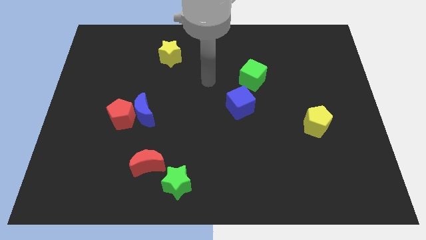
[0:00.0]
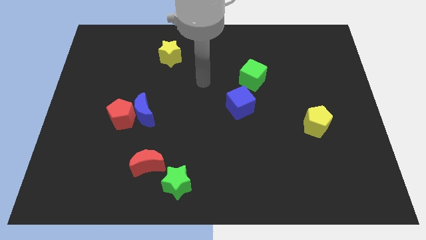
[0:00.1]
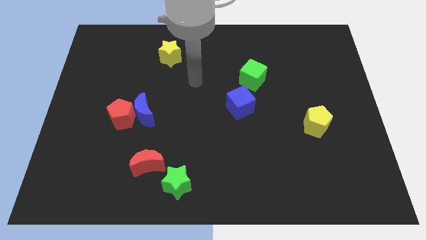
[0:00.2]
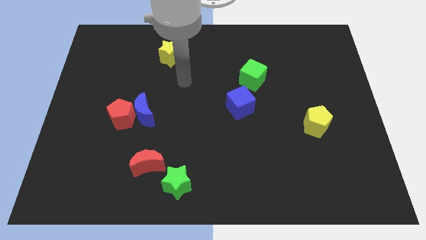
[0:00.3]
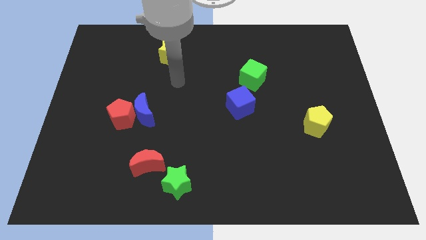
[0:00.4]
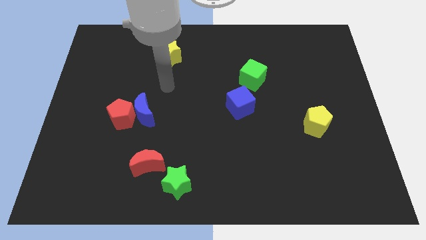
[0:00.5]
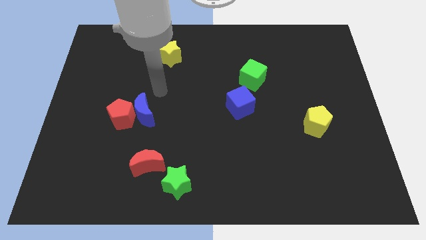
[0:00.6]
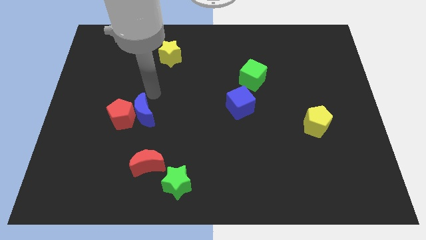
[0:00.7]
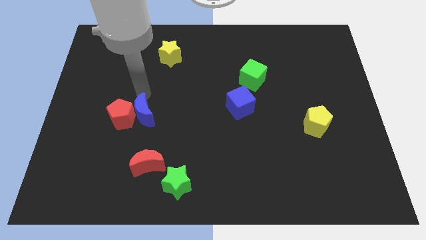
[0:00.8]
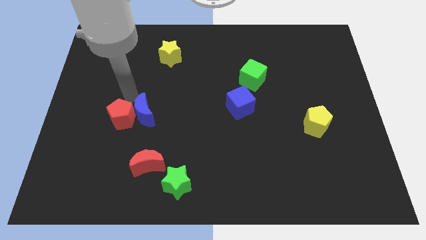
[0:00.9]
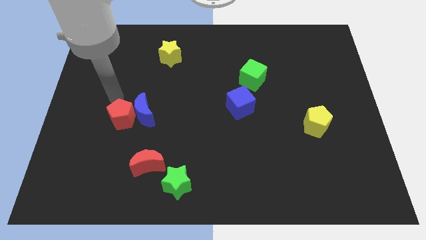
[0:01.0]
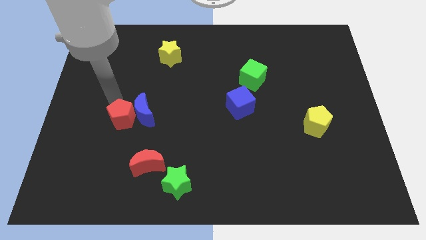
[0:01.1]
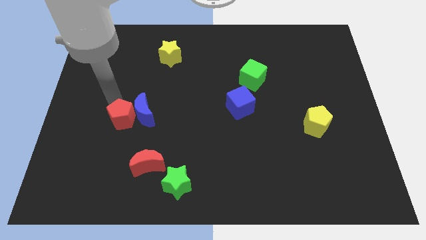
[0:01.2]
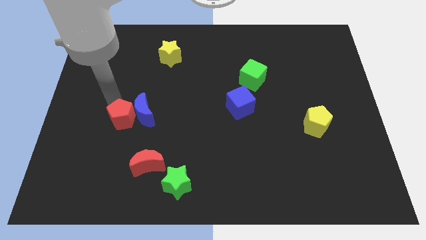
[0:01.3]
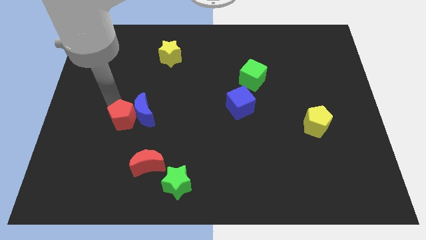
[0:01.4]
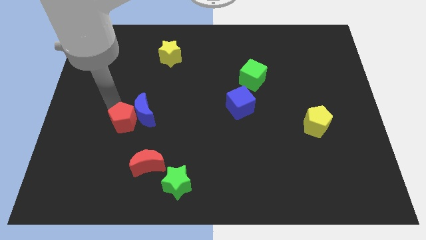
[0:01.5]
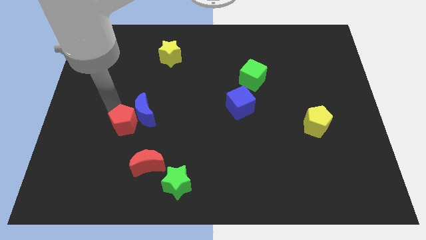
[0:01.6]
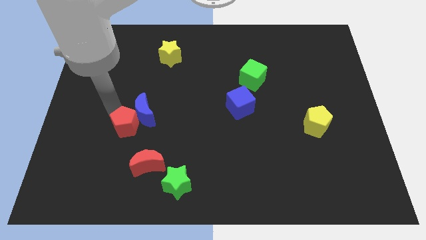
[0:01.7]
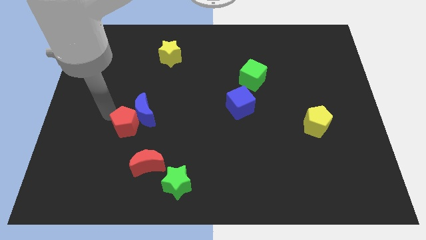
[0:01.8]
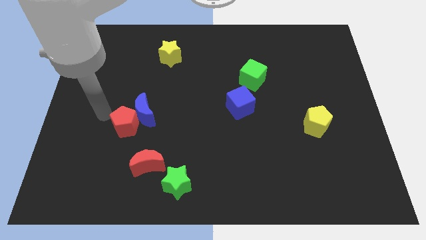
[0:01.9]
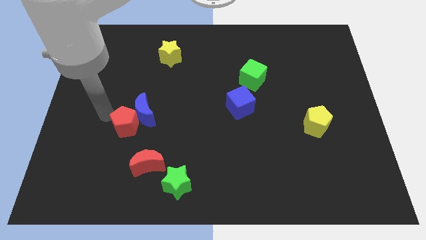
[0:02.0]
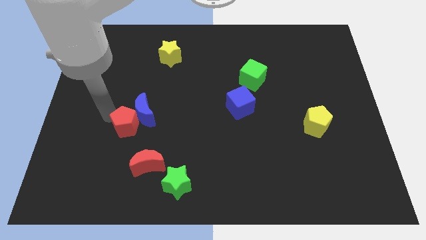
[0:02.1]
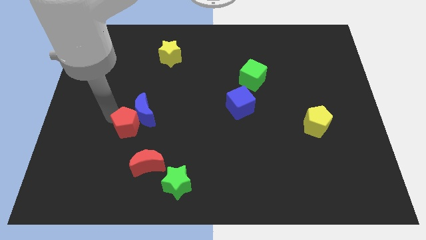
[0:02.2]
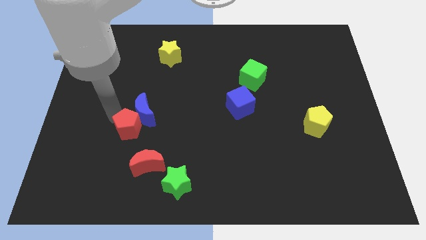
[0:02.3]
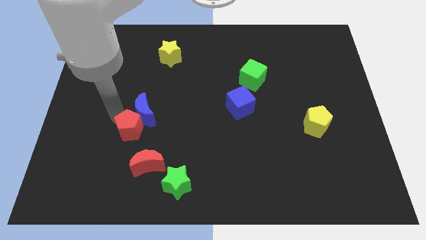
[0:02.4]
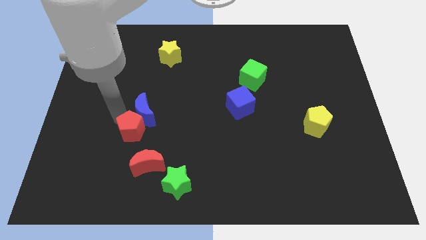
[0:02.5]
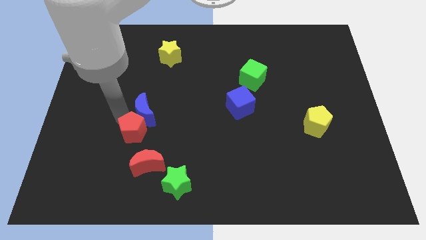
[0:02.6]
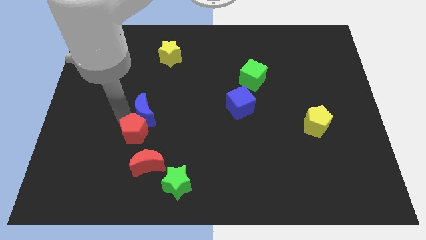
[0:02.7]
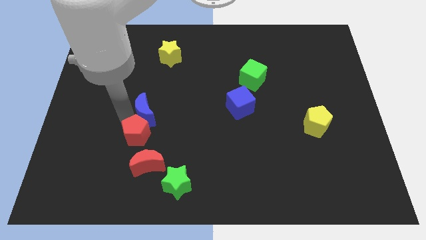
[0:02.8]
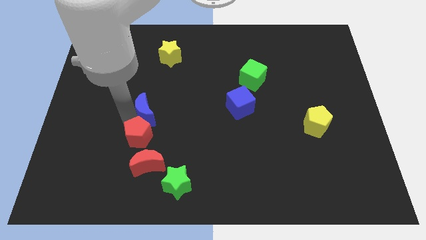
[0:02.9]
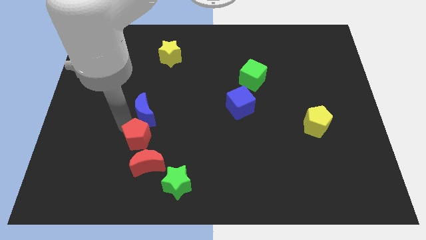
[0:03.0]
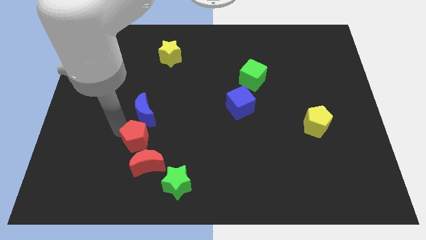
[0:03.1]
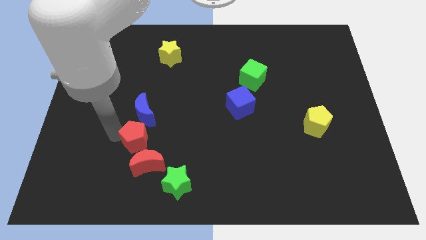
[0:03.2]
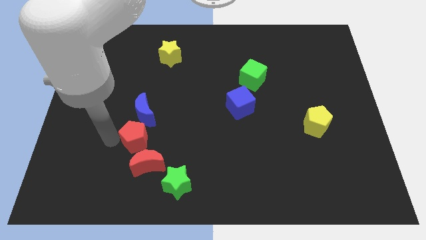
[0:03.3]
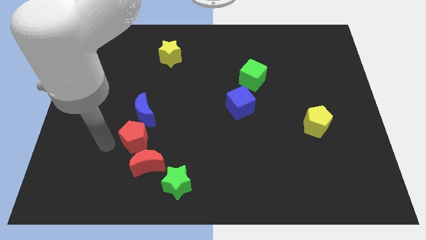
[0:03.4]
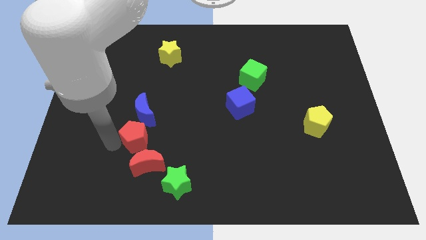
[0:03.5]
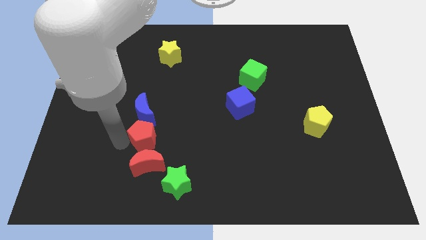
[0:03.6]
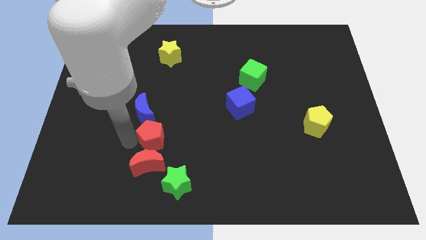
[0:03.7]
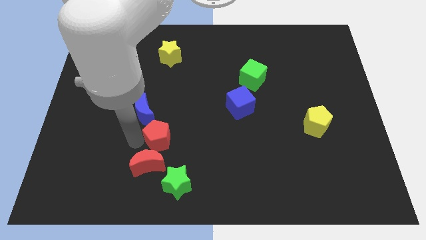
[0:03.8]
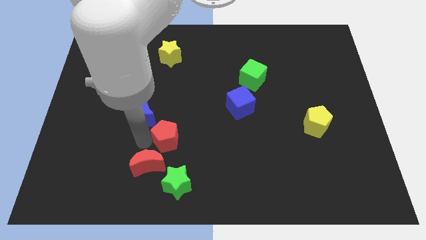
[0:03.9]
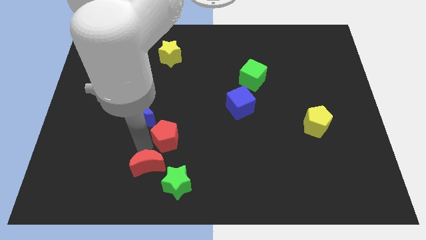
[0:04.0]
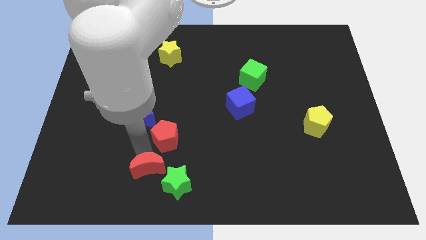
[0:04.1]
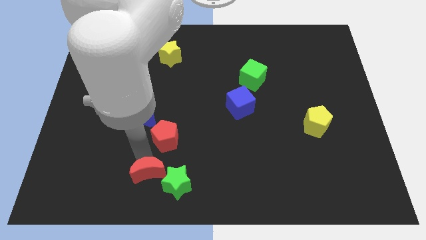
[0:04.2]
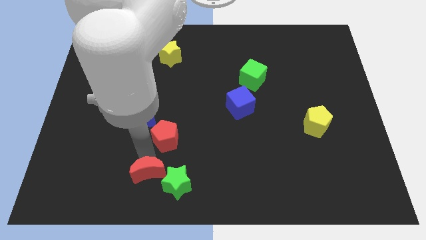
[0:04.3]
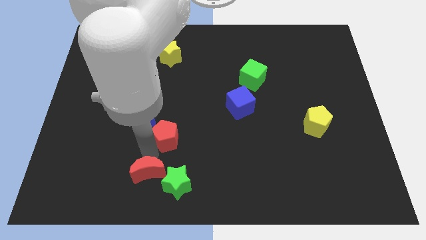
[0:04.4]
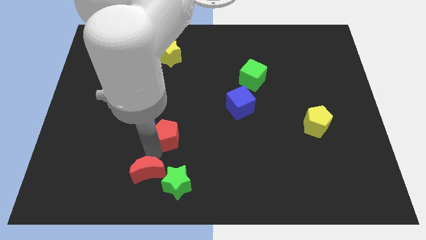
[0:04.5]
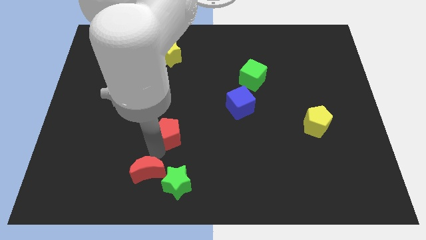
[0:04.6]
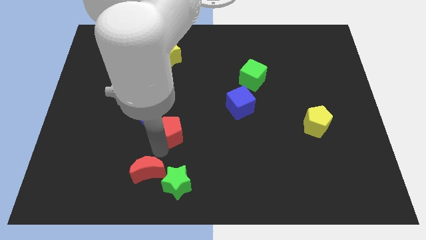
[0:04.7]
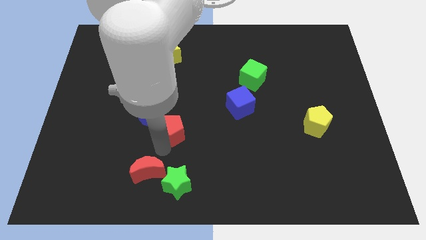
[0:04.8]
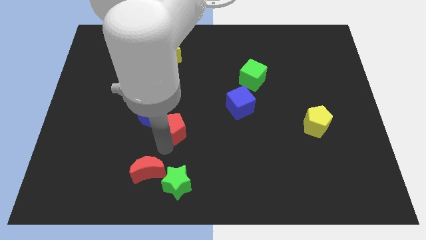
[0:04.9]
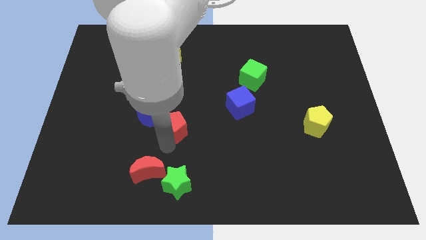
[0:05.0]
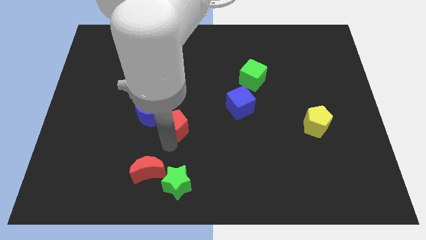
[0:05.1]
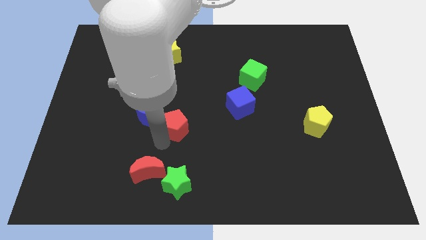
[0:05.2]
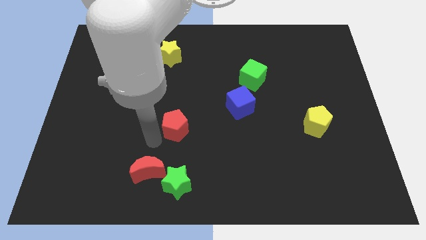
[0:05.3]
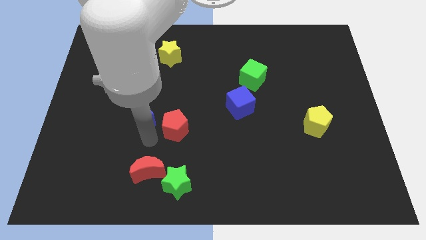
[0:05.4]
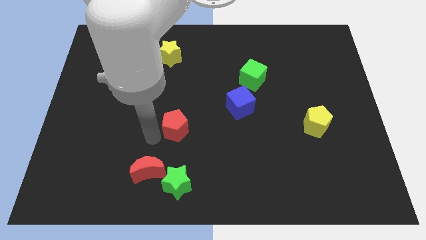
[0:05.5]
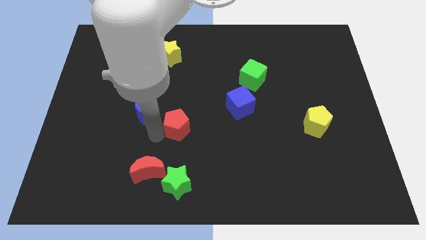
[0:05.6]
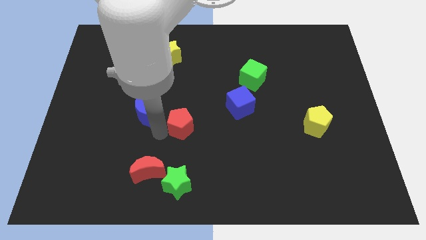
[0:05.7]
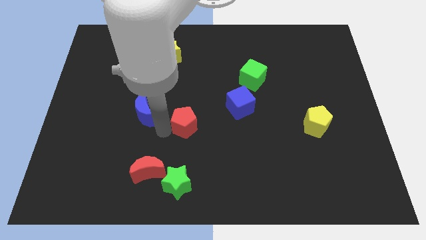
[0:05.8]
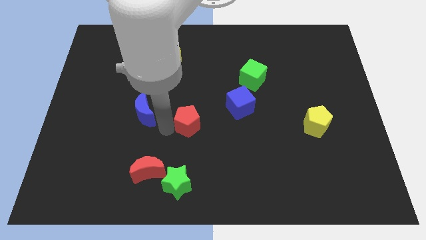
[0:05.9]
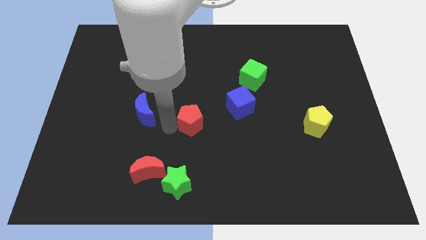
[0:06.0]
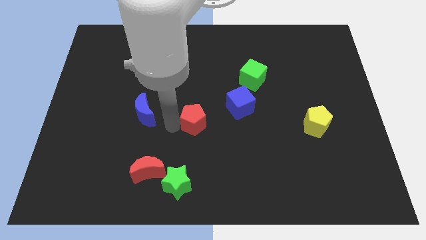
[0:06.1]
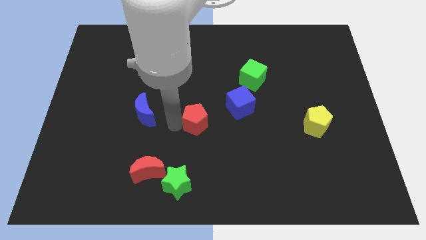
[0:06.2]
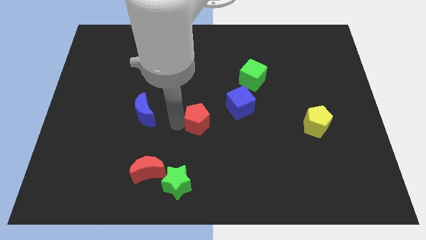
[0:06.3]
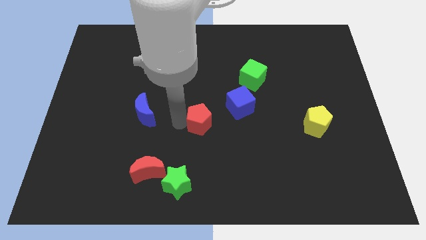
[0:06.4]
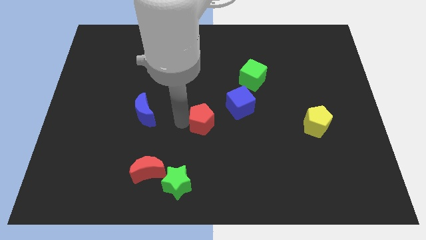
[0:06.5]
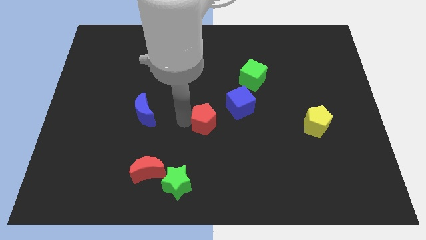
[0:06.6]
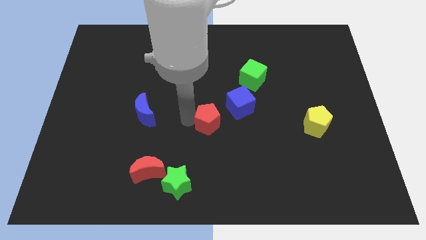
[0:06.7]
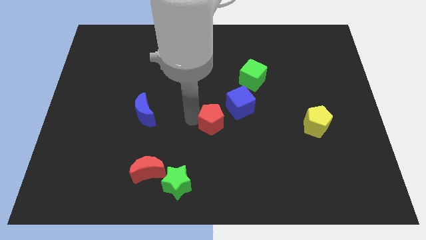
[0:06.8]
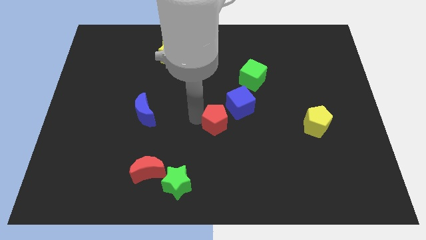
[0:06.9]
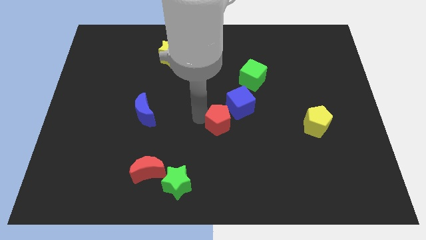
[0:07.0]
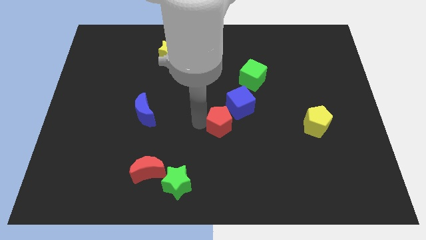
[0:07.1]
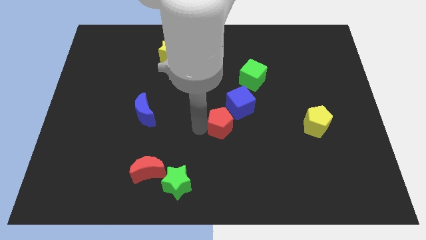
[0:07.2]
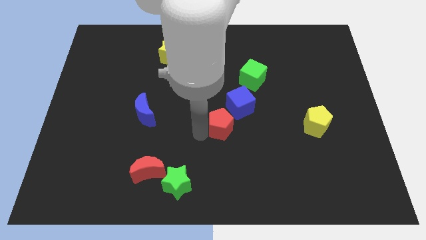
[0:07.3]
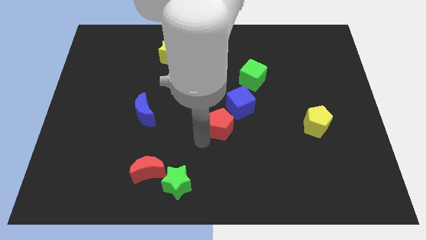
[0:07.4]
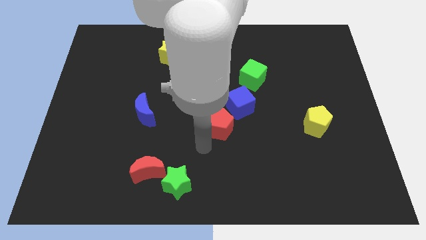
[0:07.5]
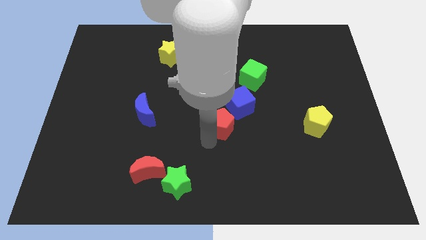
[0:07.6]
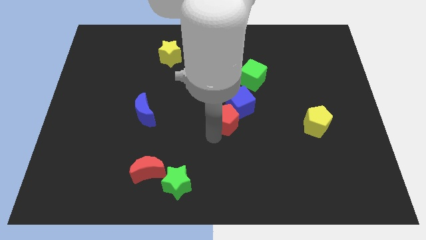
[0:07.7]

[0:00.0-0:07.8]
slide the red pentagon next to the blue cube
